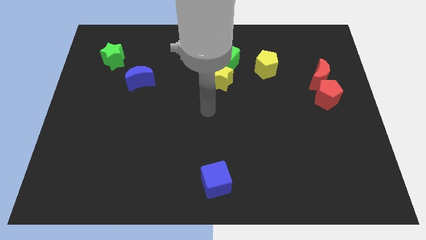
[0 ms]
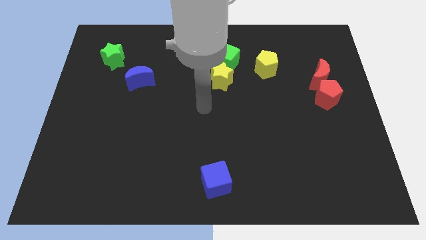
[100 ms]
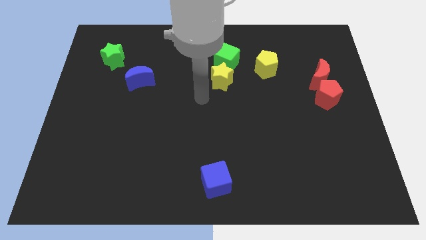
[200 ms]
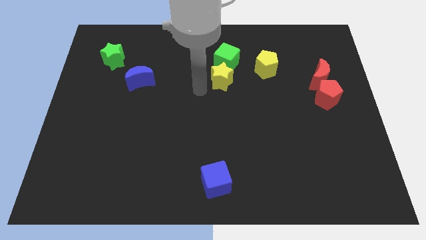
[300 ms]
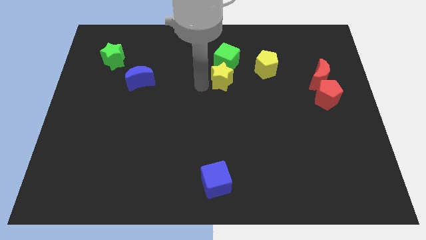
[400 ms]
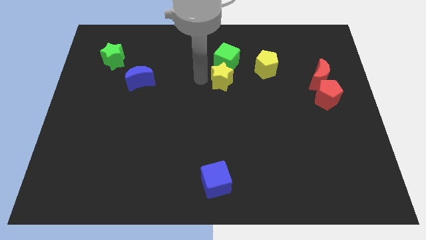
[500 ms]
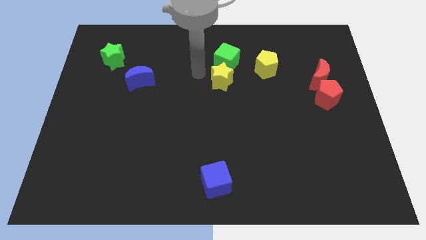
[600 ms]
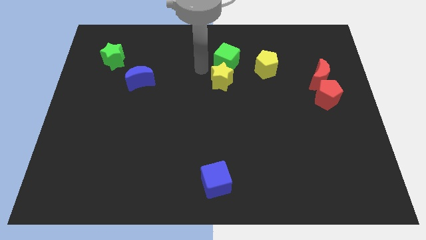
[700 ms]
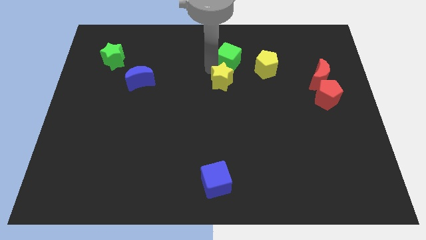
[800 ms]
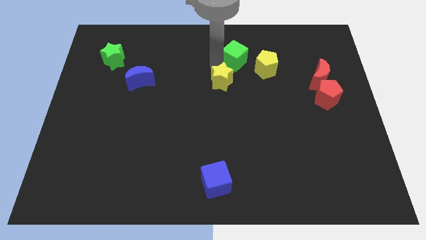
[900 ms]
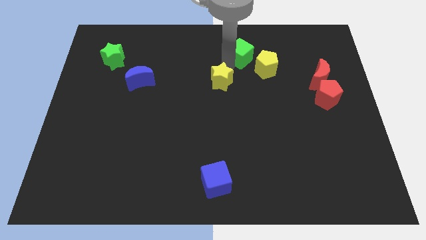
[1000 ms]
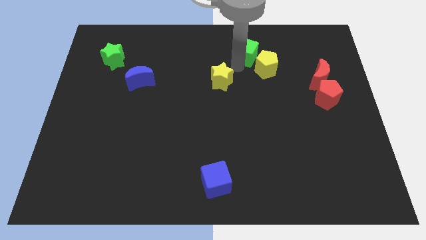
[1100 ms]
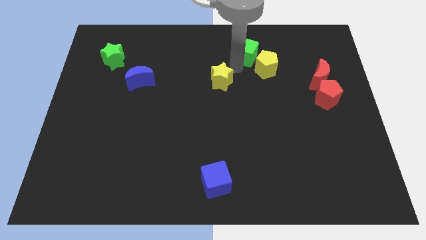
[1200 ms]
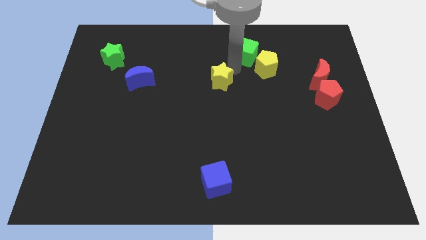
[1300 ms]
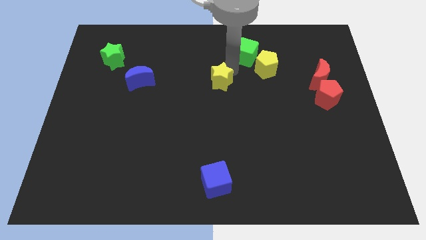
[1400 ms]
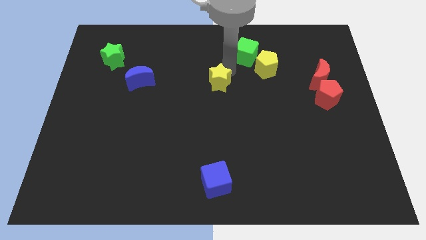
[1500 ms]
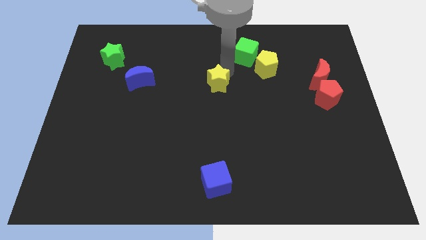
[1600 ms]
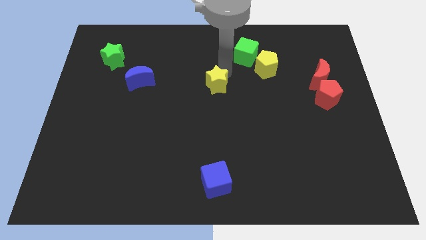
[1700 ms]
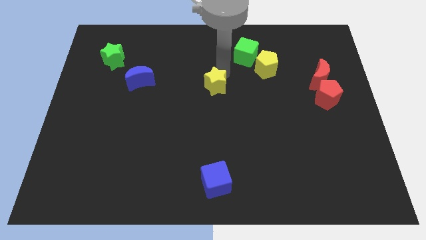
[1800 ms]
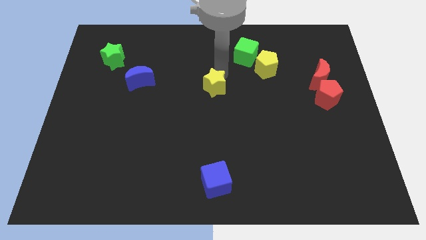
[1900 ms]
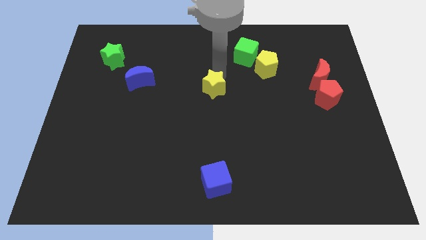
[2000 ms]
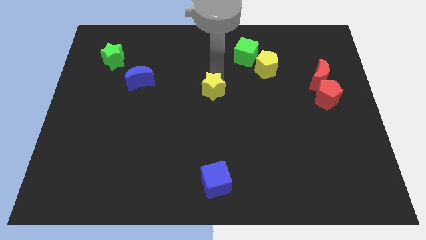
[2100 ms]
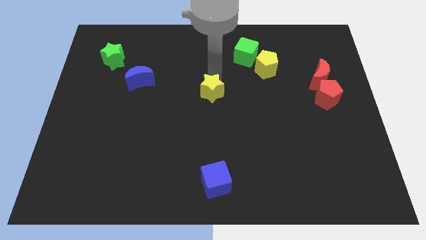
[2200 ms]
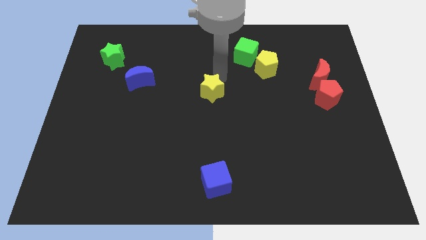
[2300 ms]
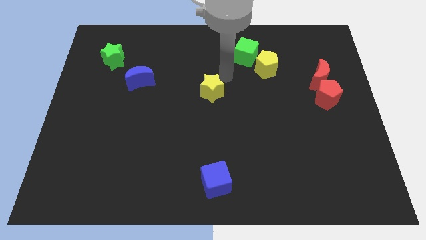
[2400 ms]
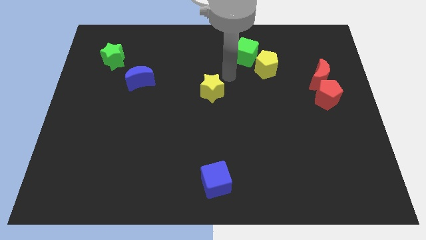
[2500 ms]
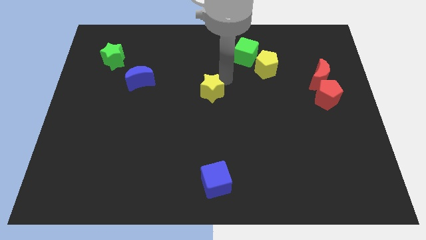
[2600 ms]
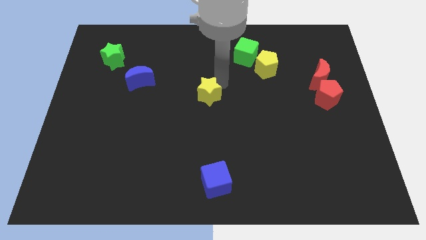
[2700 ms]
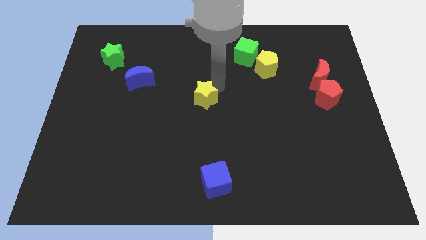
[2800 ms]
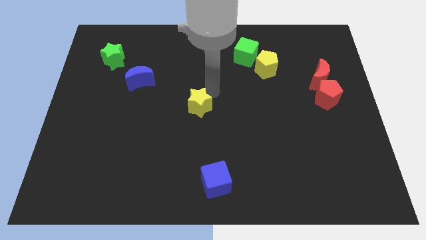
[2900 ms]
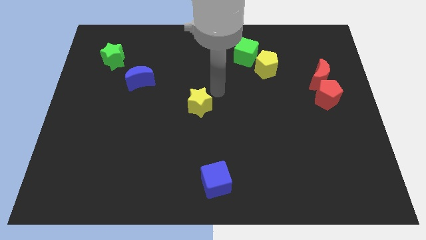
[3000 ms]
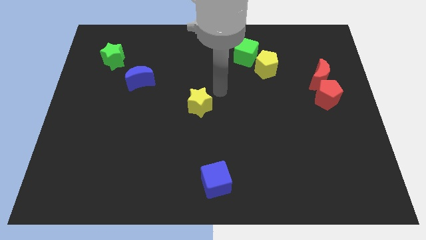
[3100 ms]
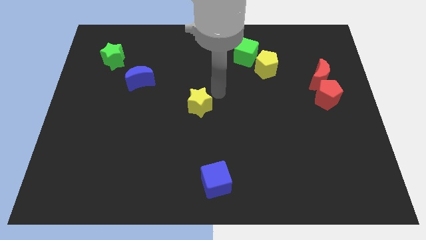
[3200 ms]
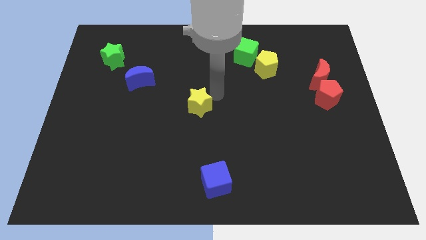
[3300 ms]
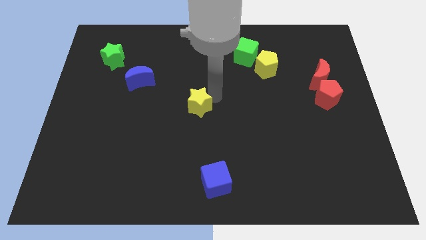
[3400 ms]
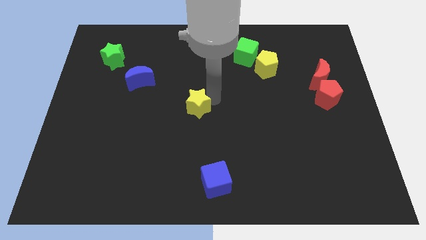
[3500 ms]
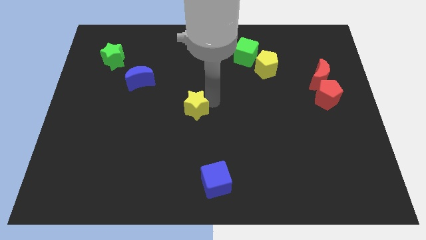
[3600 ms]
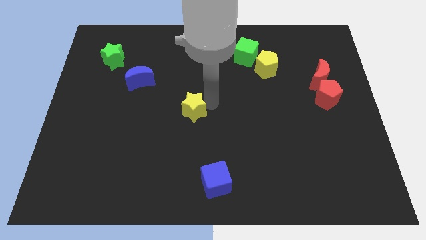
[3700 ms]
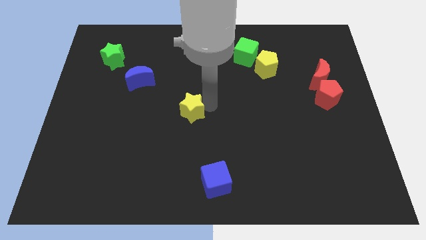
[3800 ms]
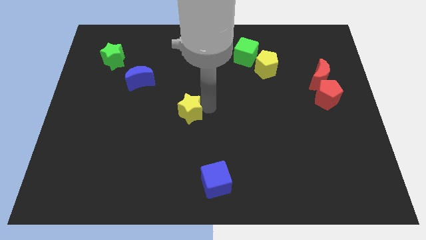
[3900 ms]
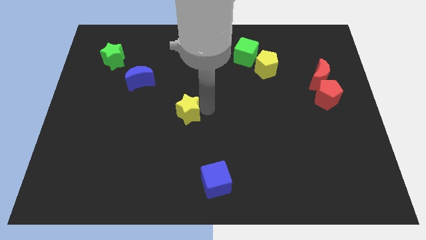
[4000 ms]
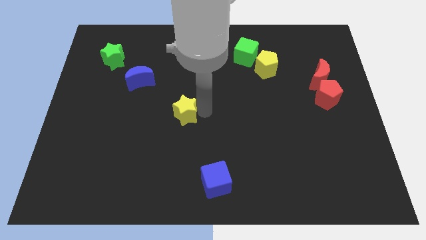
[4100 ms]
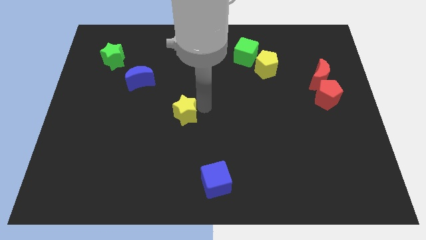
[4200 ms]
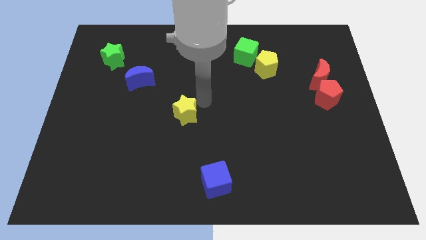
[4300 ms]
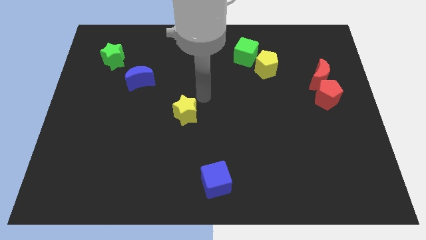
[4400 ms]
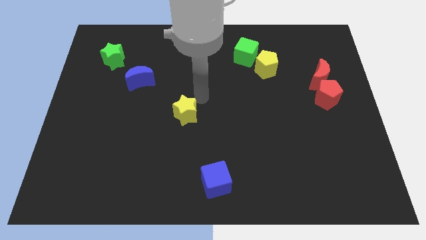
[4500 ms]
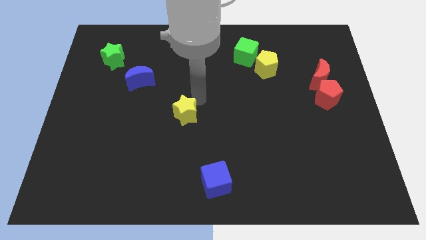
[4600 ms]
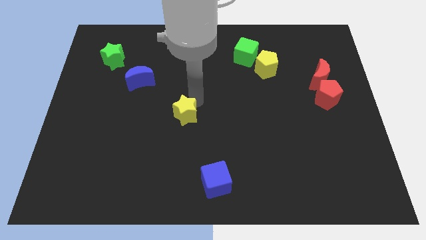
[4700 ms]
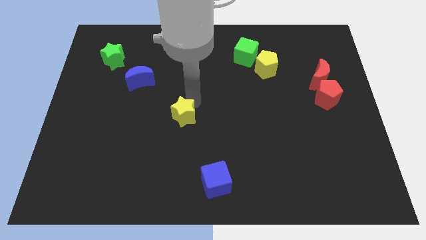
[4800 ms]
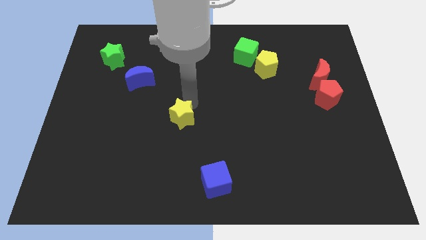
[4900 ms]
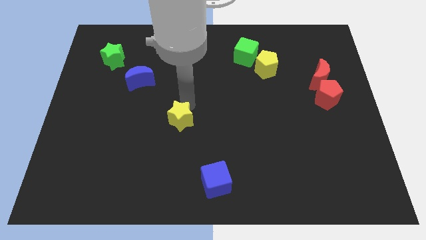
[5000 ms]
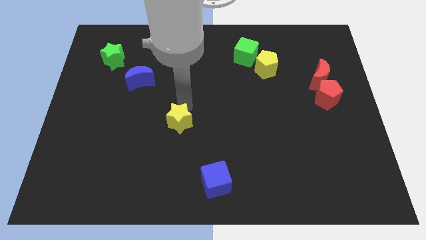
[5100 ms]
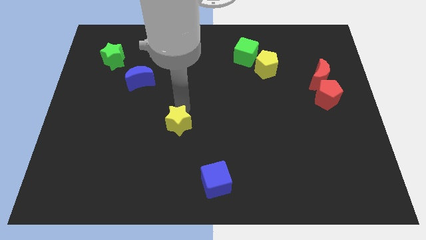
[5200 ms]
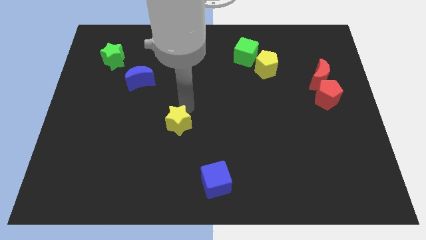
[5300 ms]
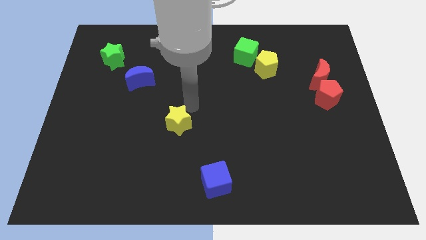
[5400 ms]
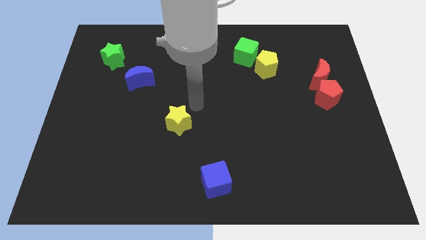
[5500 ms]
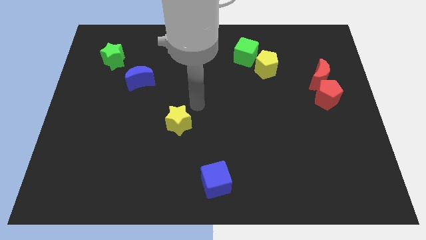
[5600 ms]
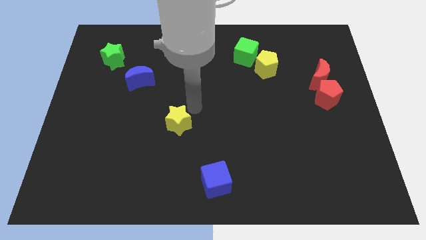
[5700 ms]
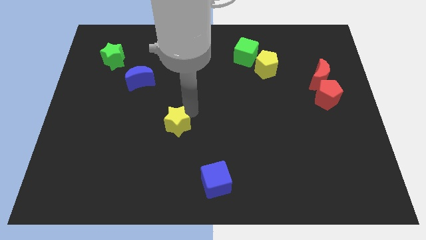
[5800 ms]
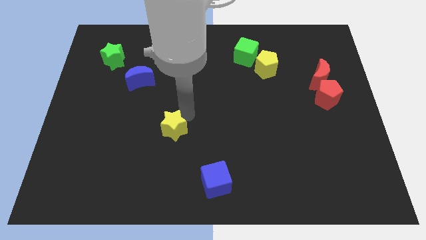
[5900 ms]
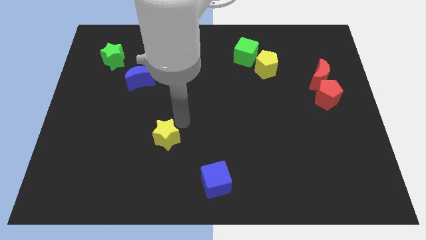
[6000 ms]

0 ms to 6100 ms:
push the yellow star down and then left

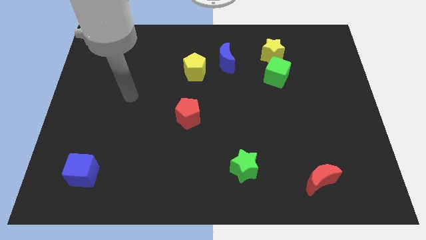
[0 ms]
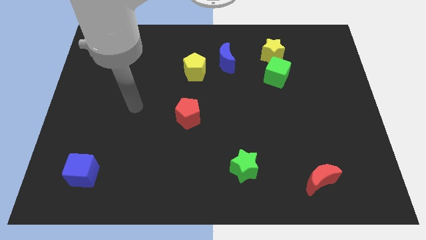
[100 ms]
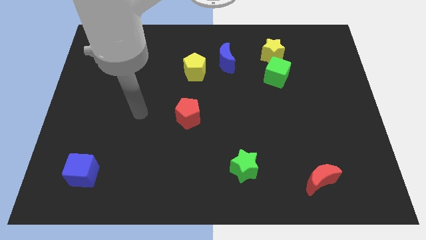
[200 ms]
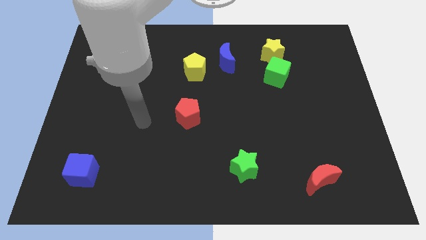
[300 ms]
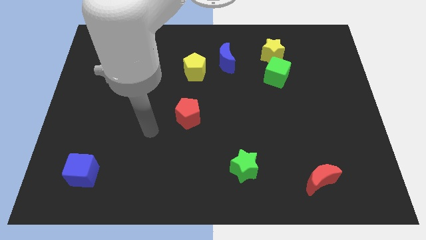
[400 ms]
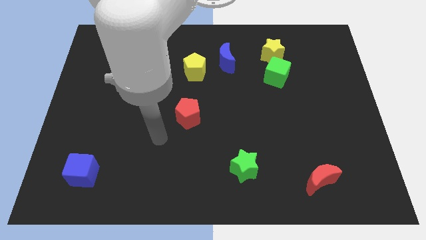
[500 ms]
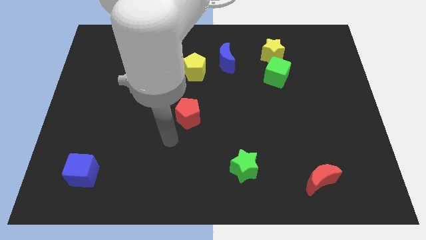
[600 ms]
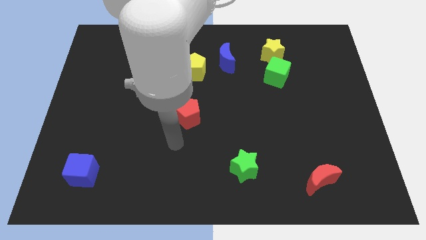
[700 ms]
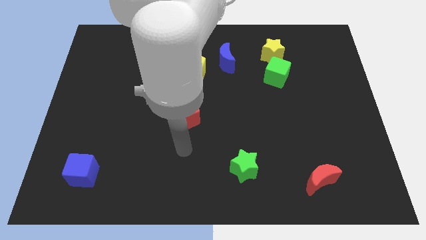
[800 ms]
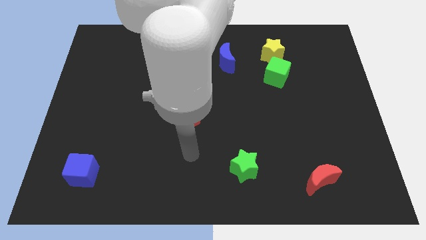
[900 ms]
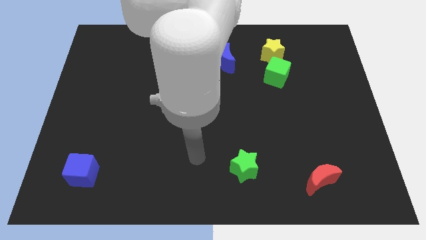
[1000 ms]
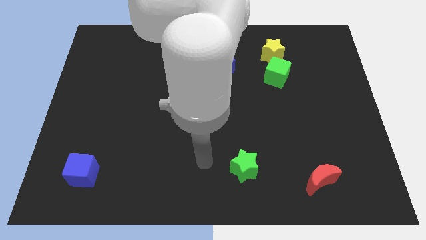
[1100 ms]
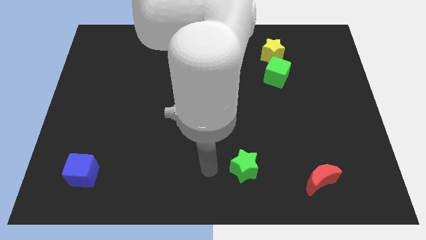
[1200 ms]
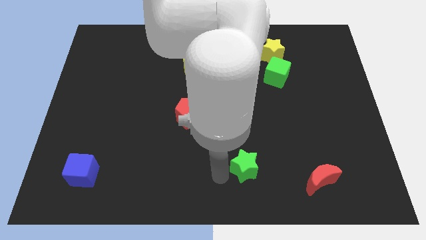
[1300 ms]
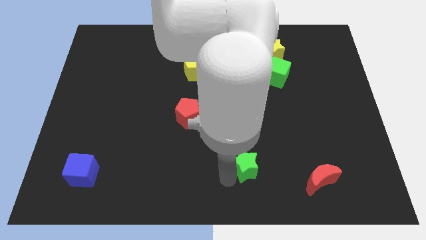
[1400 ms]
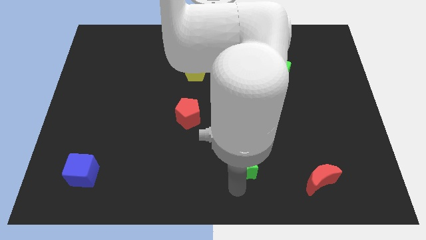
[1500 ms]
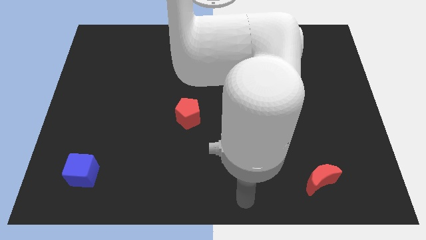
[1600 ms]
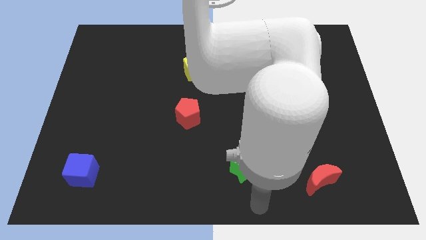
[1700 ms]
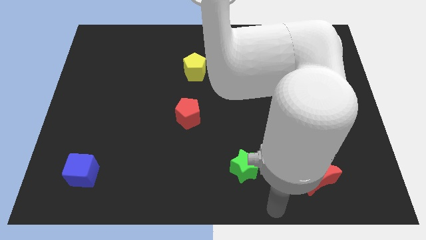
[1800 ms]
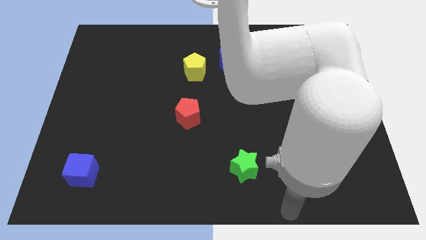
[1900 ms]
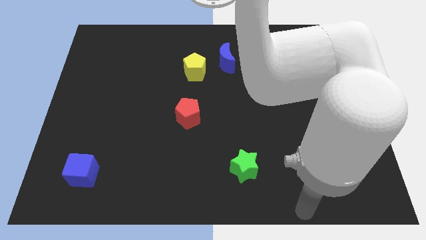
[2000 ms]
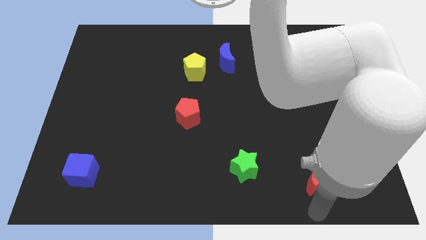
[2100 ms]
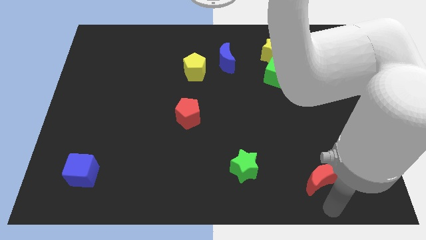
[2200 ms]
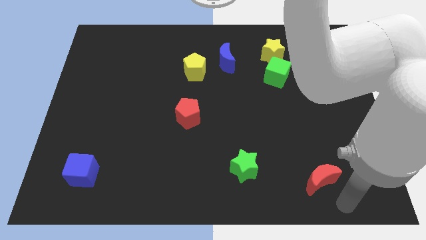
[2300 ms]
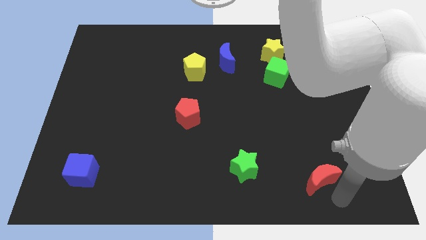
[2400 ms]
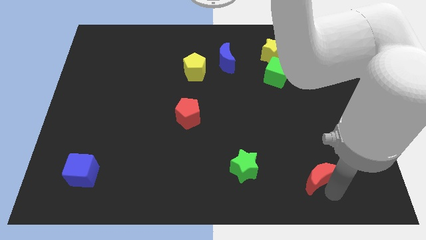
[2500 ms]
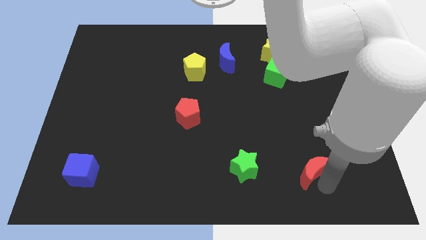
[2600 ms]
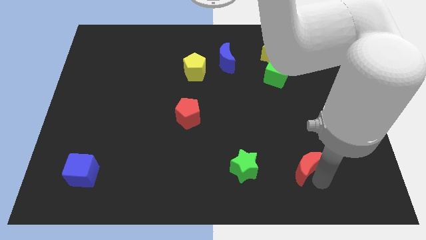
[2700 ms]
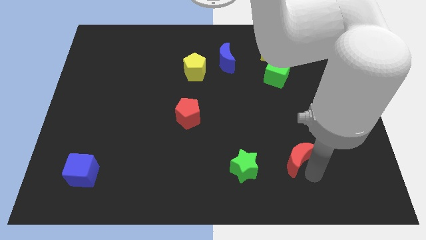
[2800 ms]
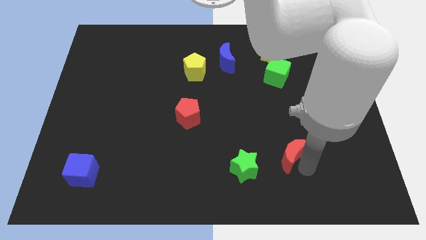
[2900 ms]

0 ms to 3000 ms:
slightly slide the red moon up and to the left diagonally
